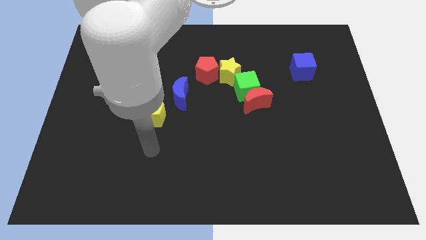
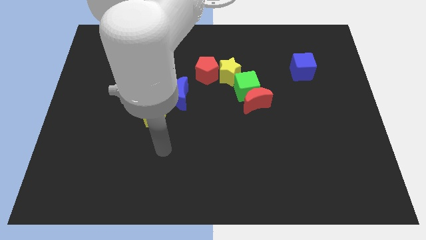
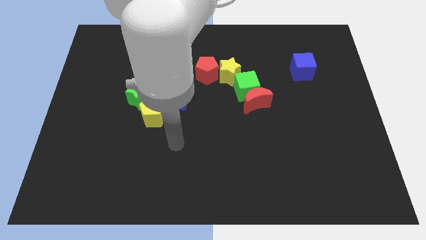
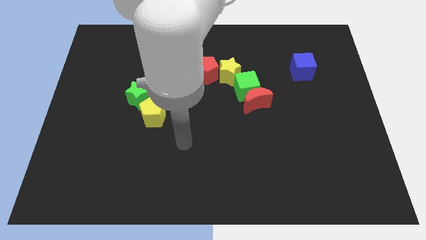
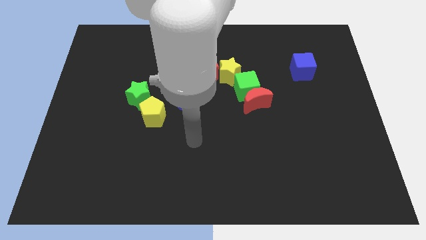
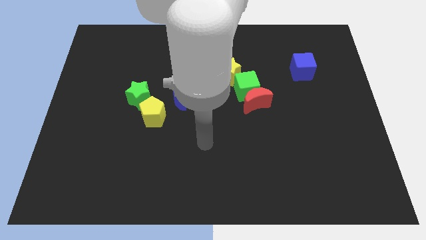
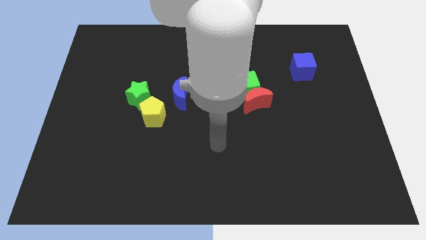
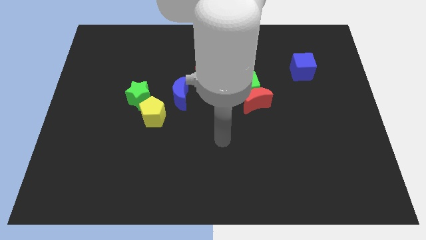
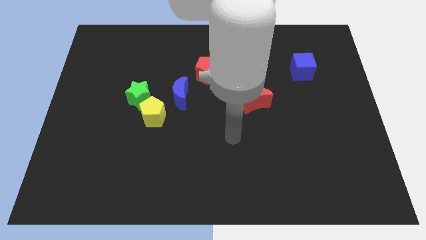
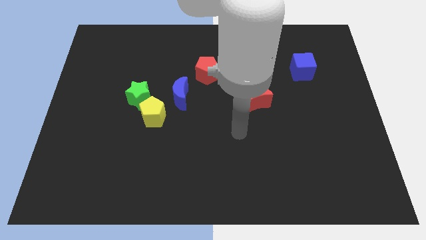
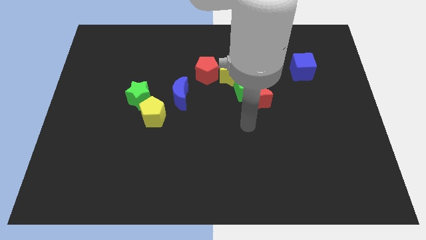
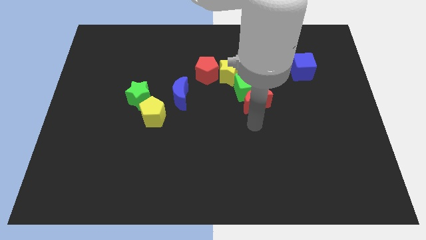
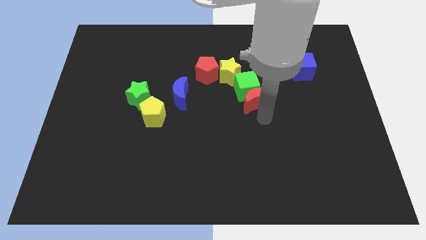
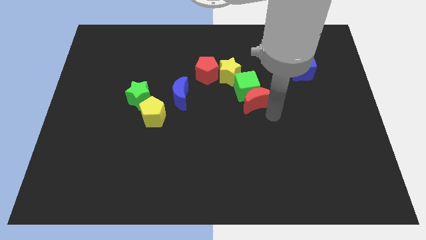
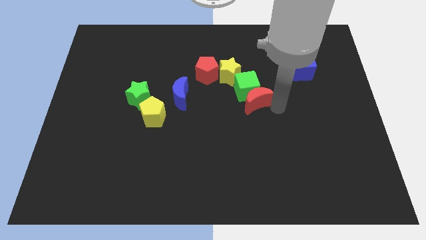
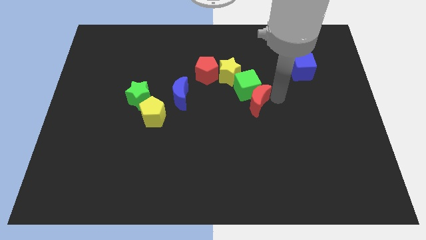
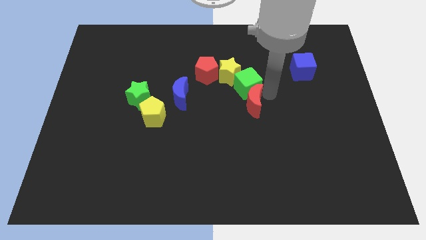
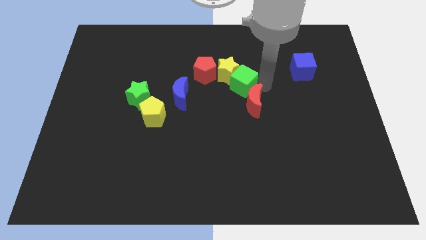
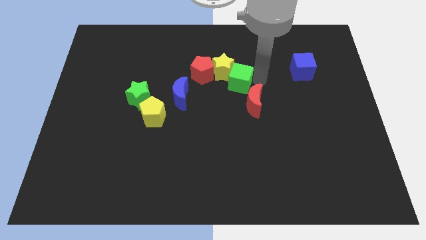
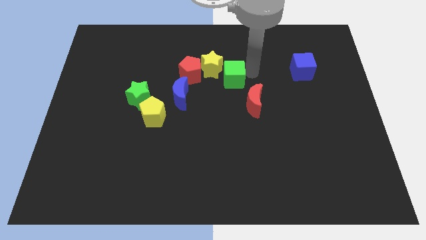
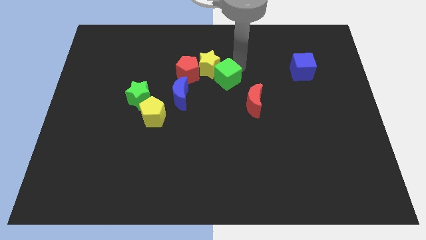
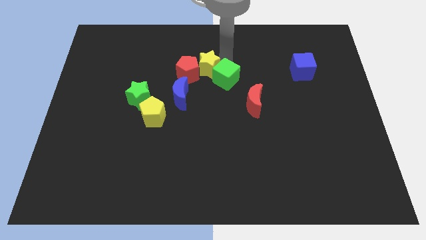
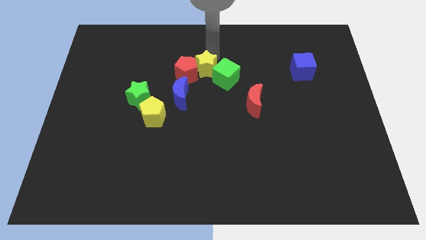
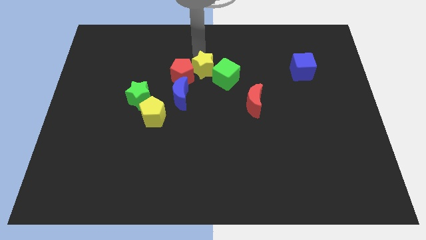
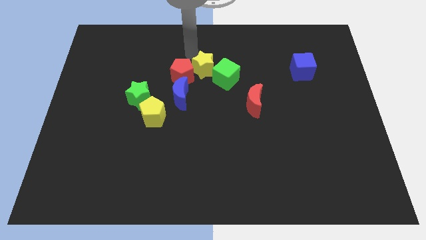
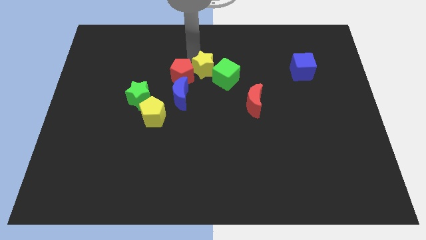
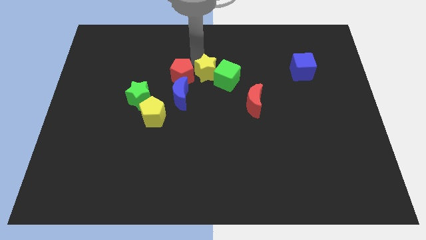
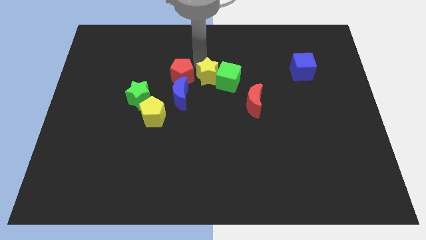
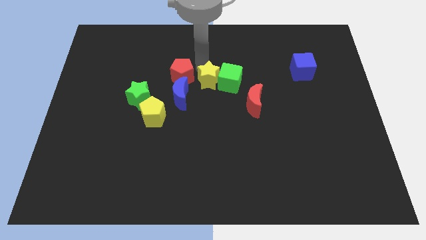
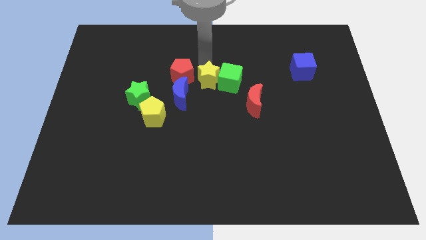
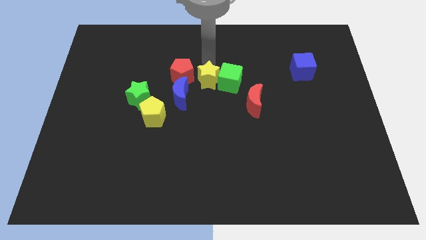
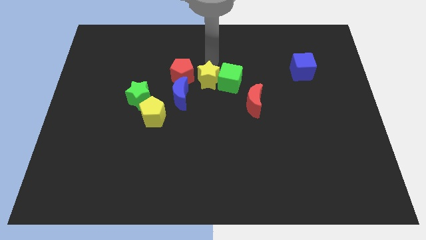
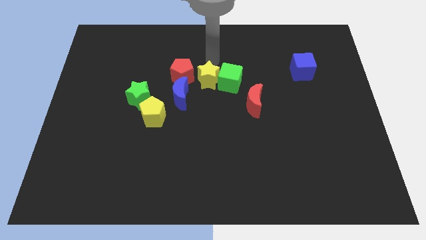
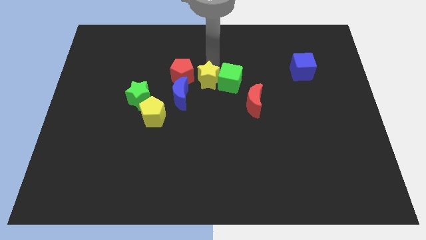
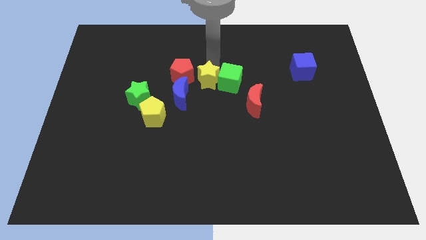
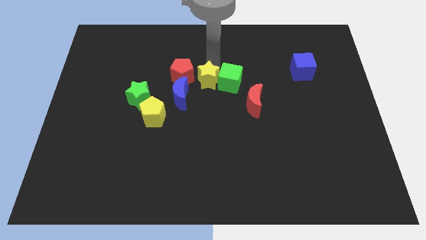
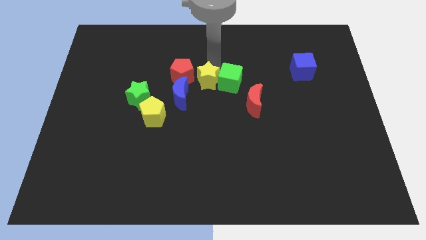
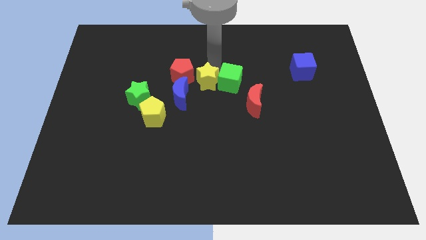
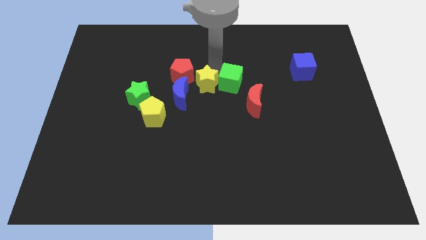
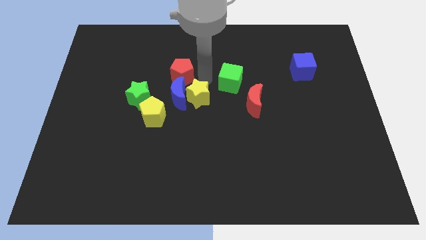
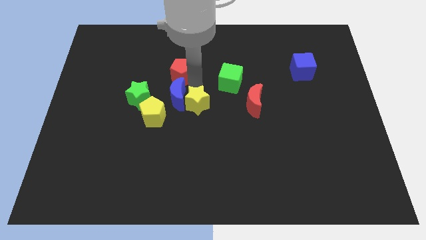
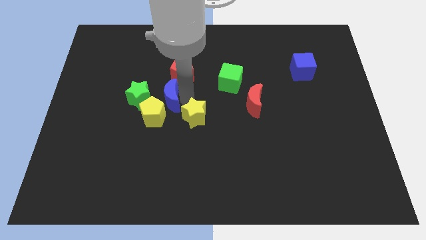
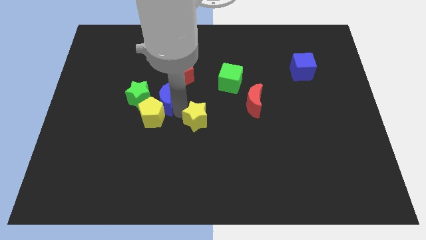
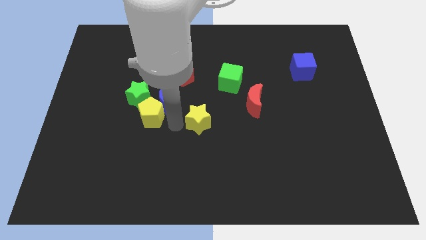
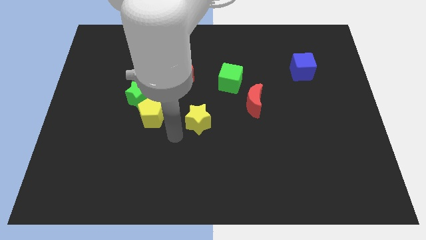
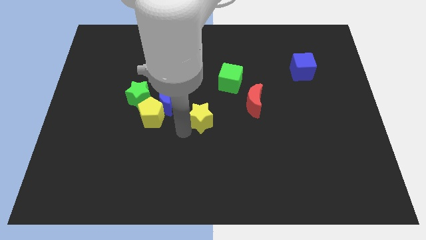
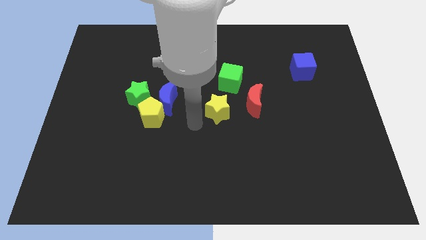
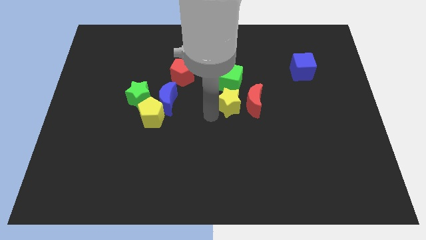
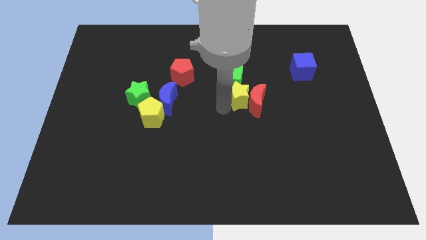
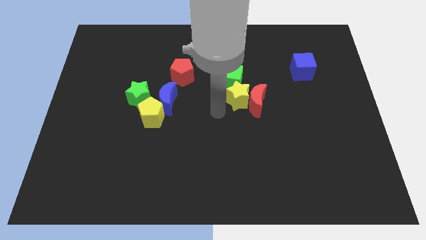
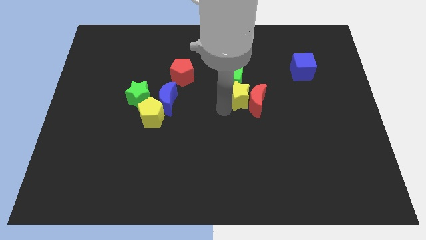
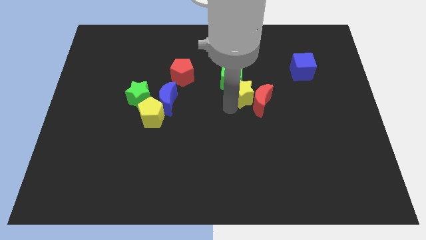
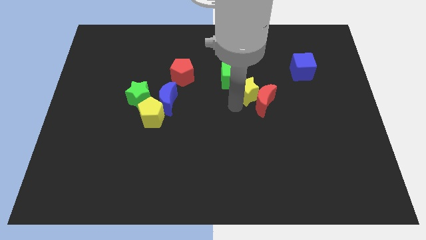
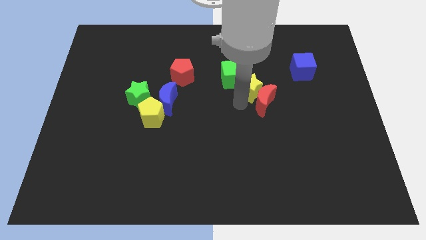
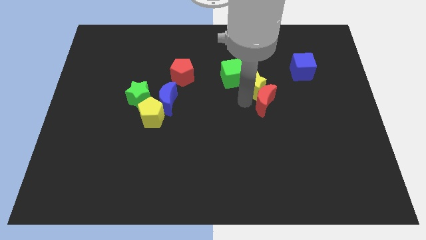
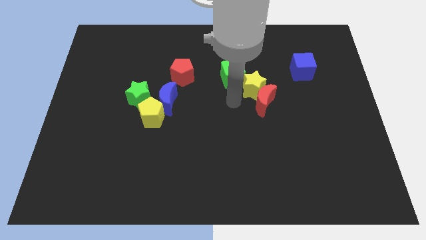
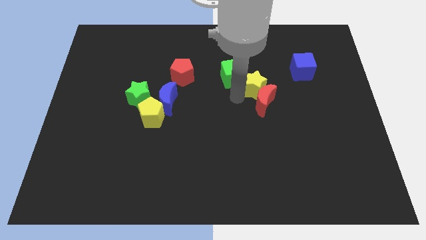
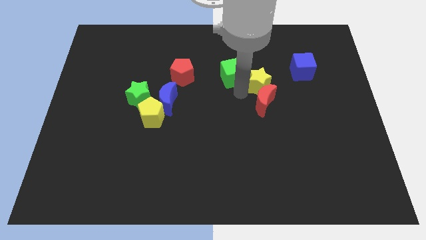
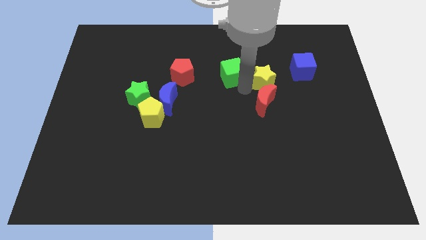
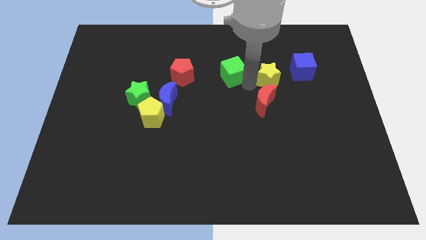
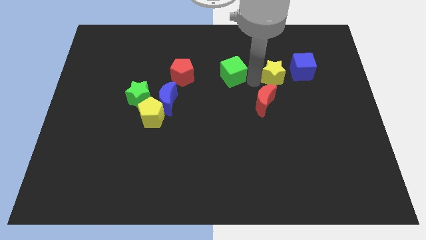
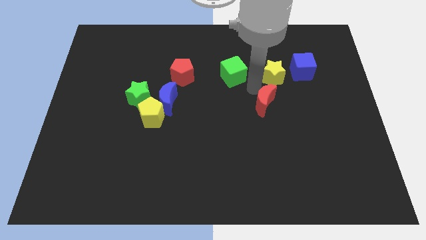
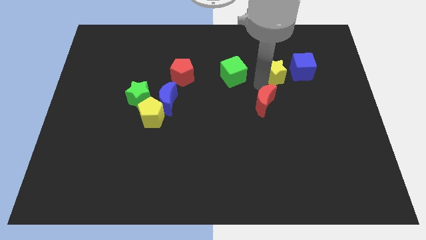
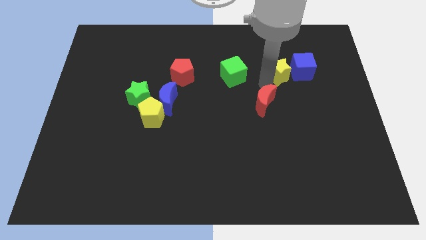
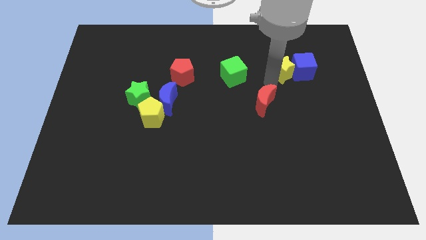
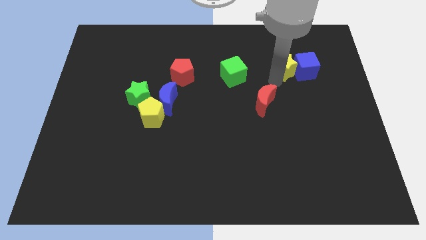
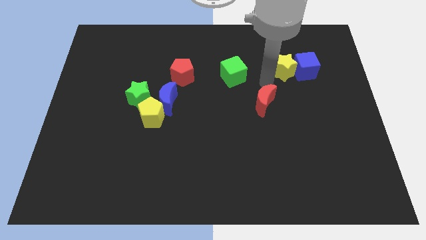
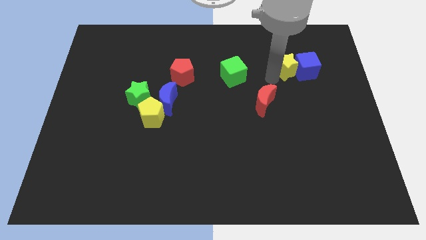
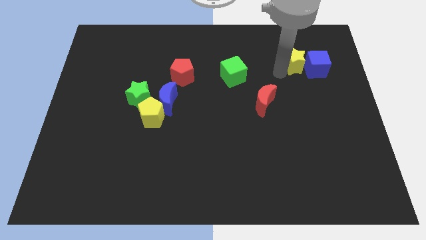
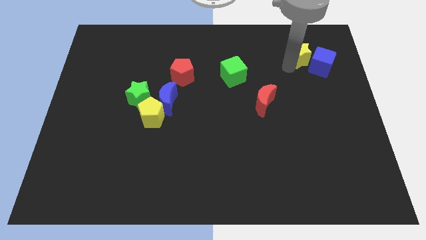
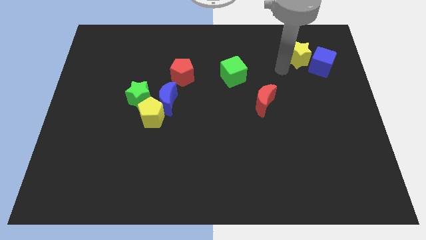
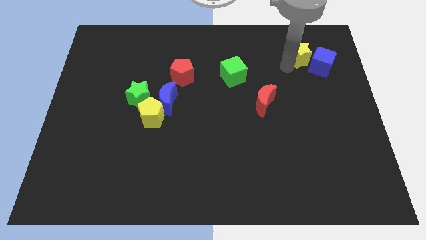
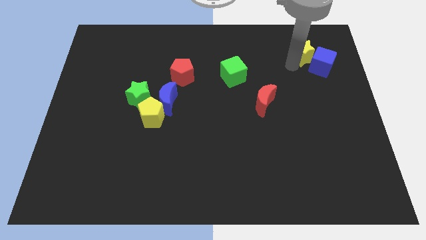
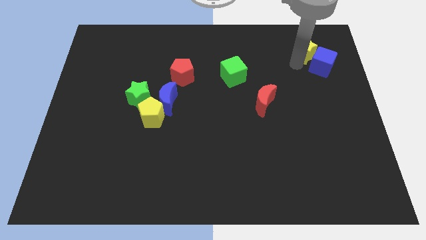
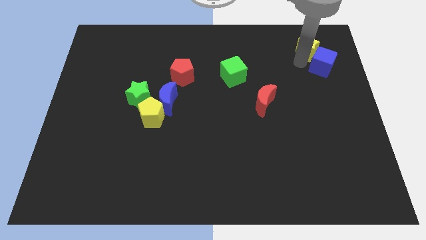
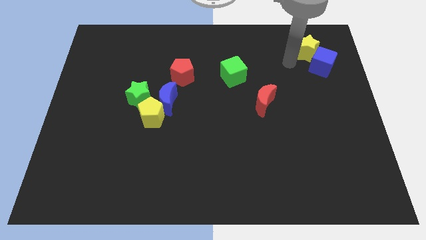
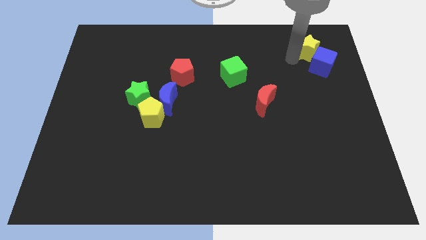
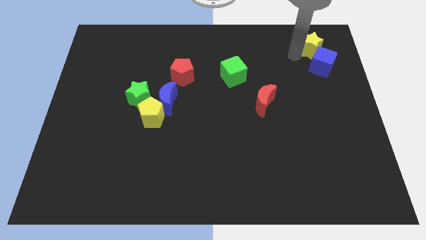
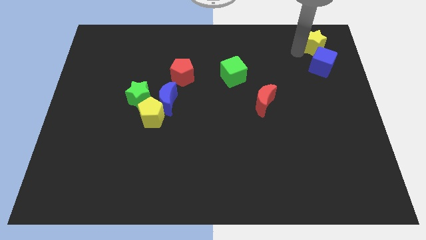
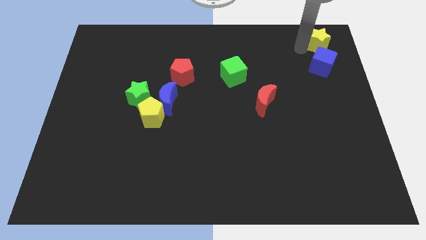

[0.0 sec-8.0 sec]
put the yellow star to the top right
